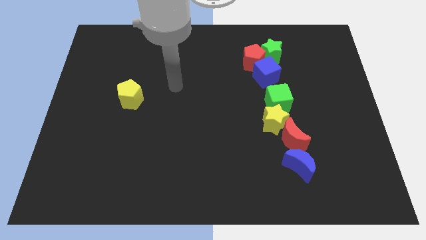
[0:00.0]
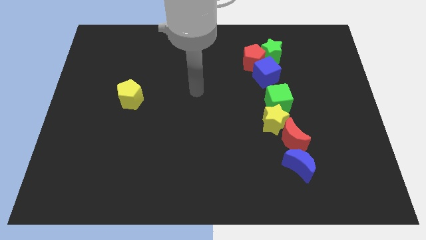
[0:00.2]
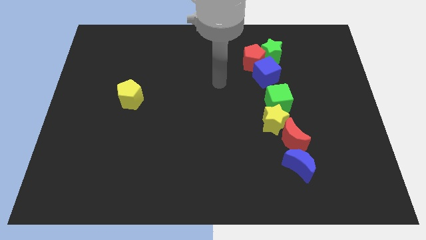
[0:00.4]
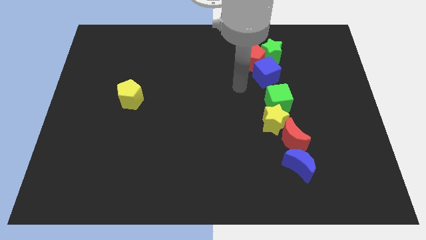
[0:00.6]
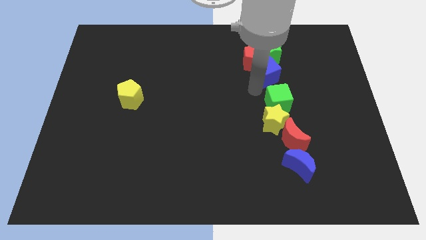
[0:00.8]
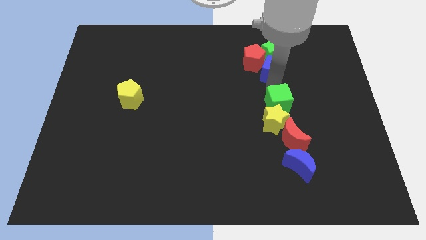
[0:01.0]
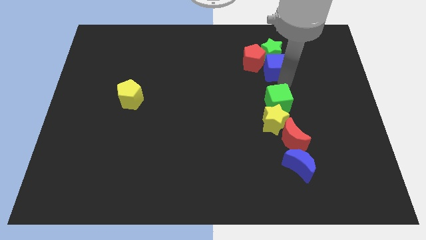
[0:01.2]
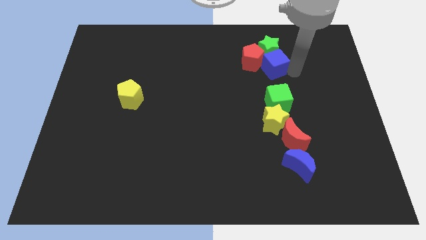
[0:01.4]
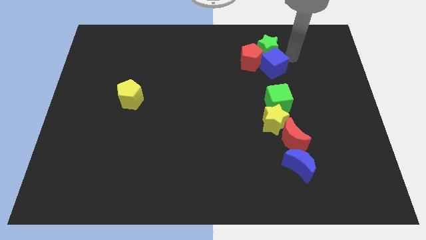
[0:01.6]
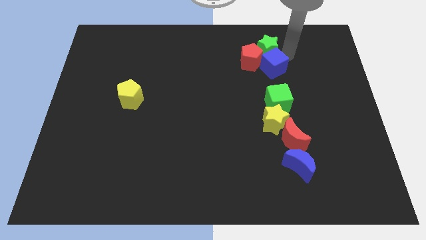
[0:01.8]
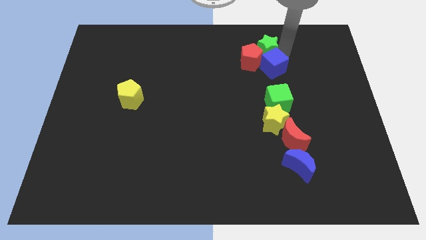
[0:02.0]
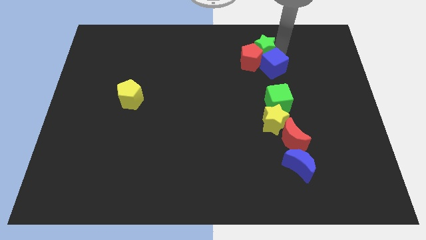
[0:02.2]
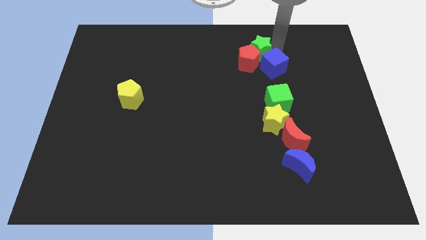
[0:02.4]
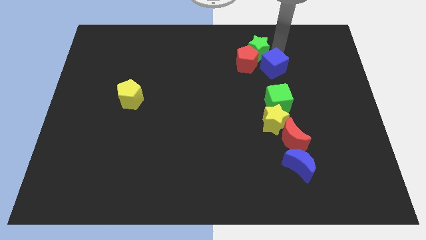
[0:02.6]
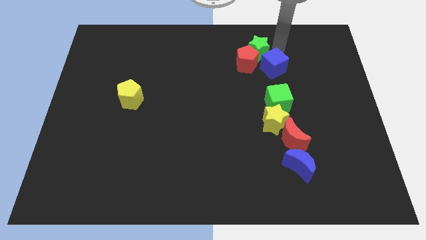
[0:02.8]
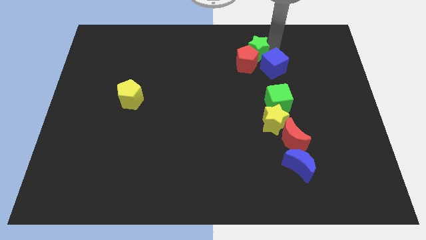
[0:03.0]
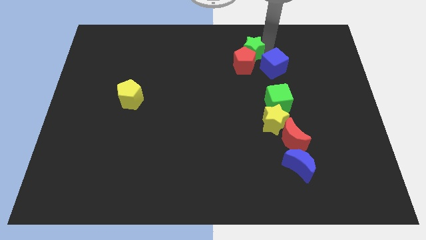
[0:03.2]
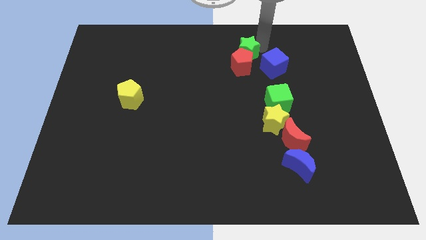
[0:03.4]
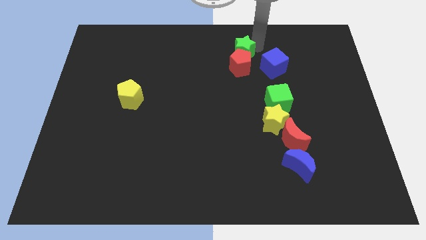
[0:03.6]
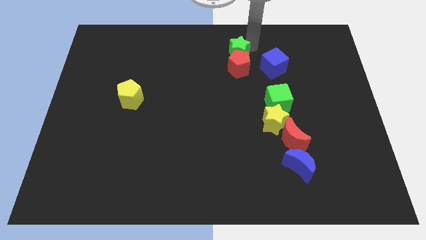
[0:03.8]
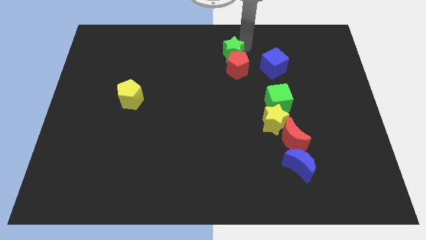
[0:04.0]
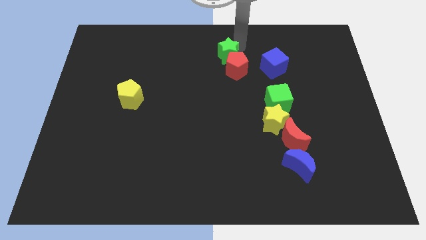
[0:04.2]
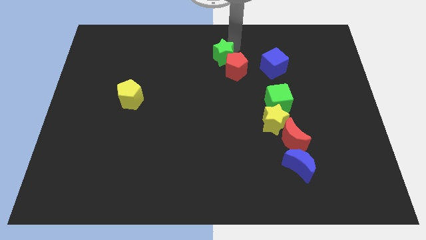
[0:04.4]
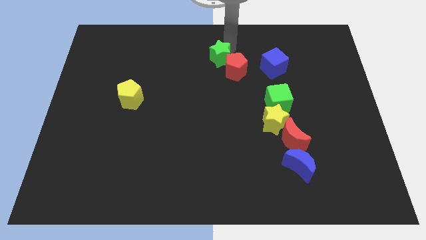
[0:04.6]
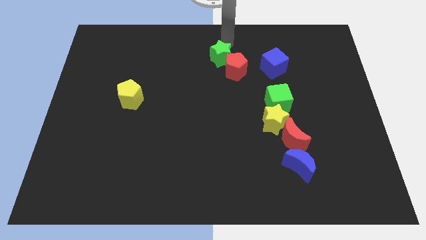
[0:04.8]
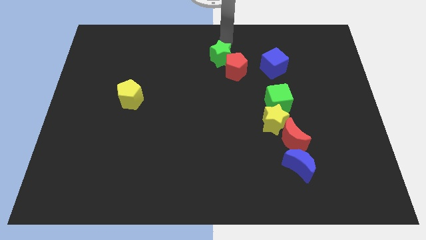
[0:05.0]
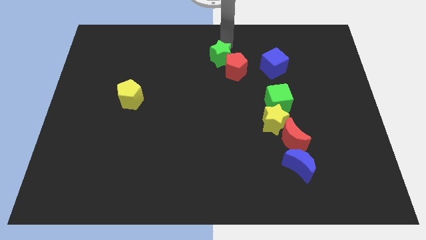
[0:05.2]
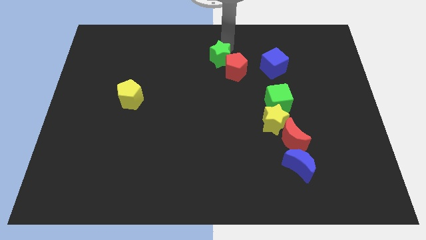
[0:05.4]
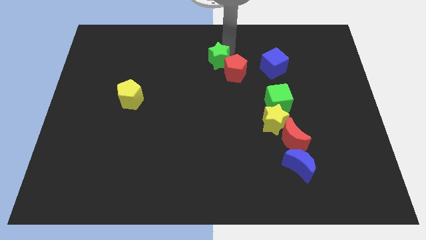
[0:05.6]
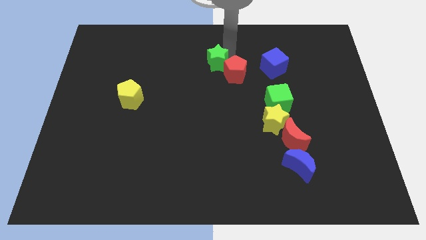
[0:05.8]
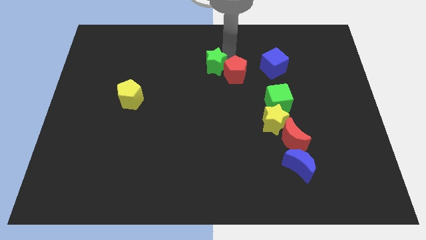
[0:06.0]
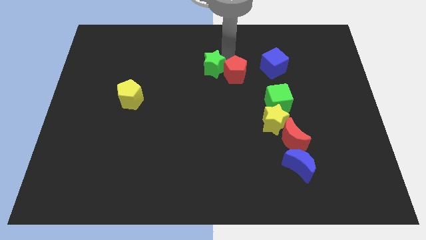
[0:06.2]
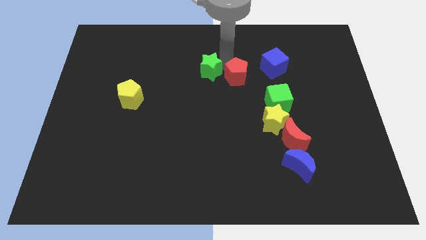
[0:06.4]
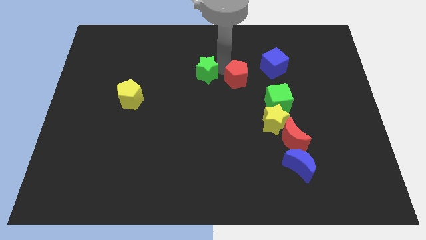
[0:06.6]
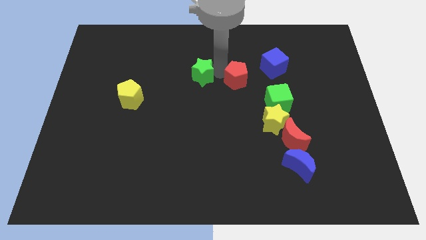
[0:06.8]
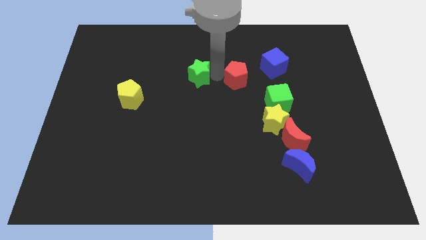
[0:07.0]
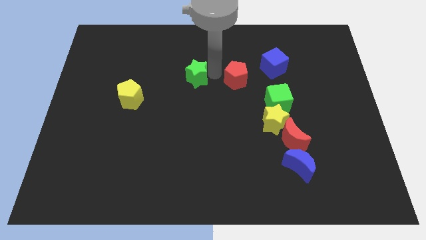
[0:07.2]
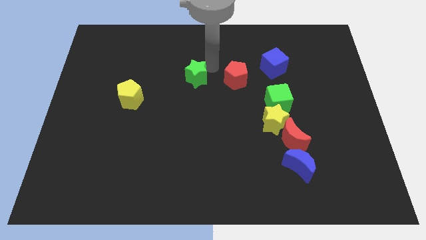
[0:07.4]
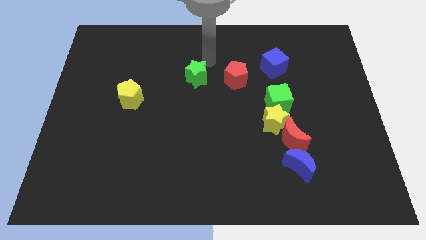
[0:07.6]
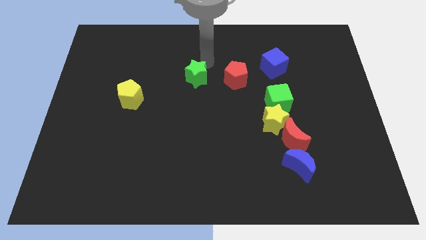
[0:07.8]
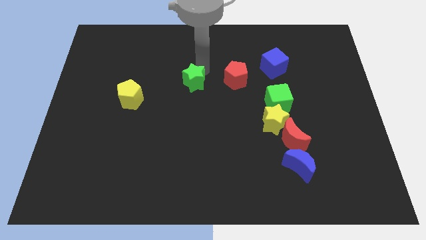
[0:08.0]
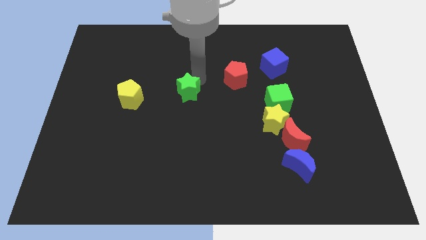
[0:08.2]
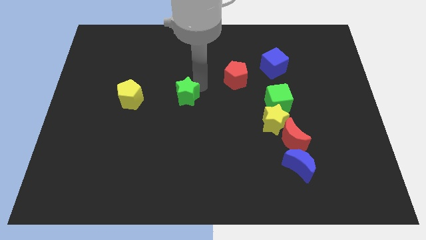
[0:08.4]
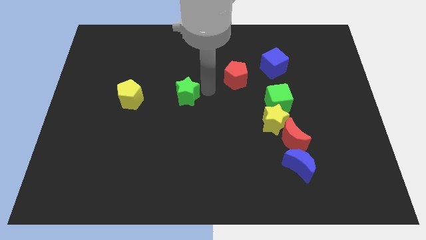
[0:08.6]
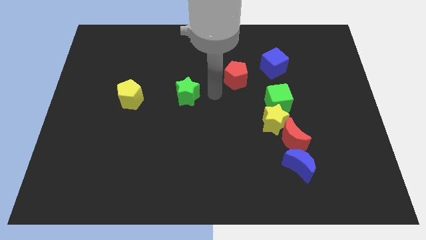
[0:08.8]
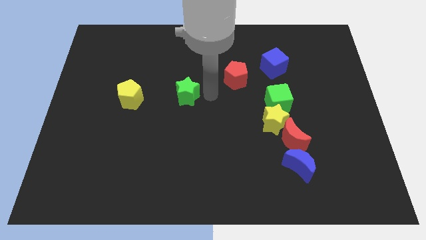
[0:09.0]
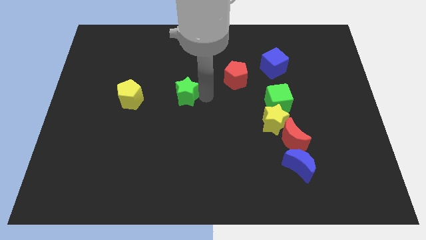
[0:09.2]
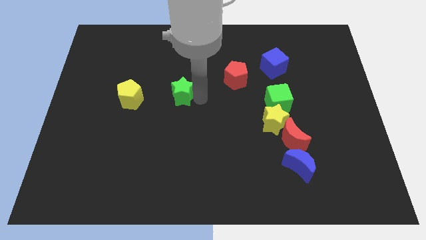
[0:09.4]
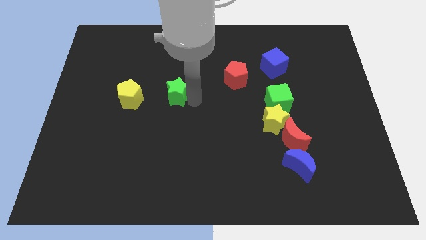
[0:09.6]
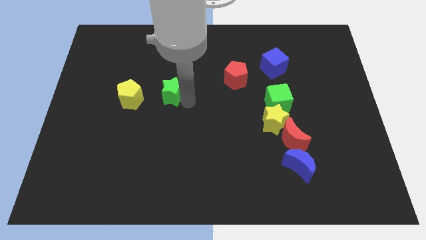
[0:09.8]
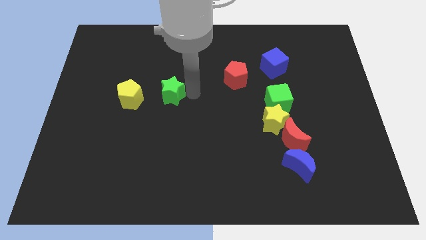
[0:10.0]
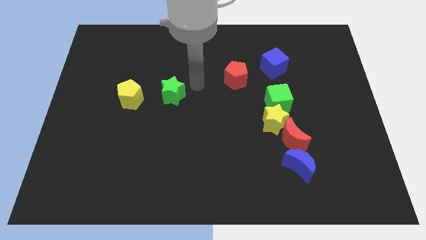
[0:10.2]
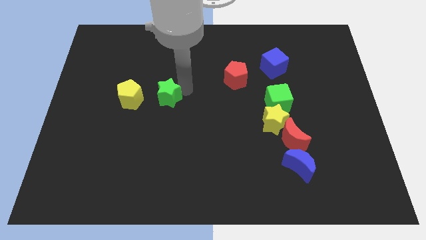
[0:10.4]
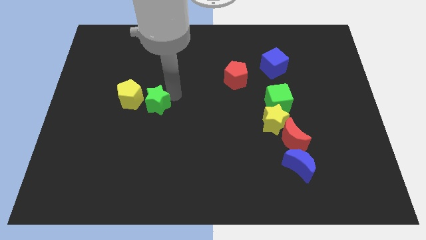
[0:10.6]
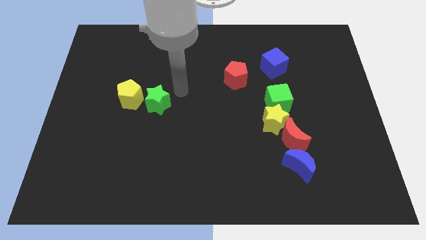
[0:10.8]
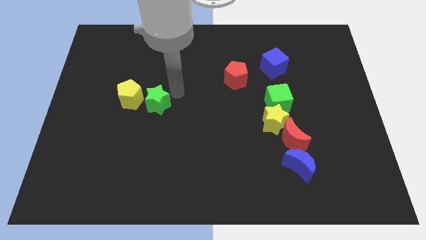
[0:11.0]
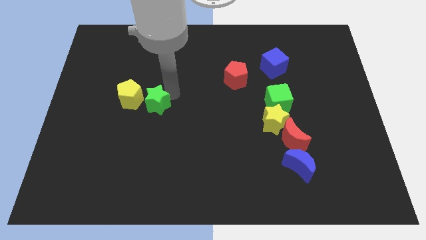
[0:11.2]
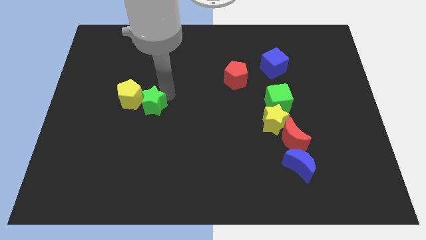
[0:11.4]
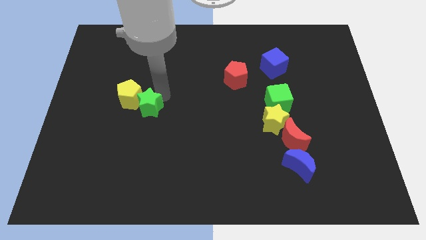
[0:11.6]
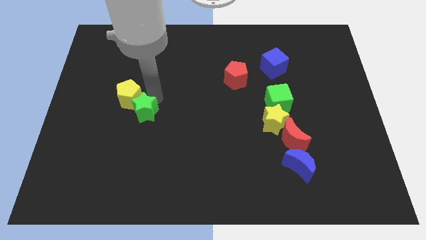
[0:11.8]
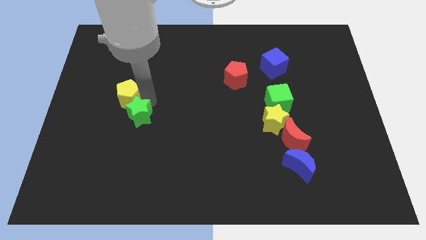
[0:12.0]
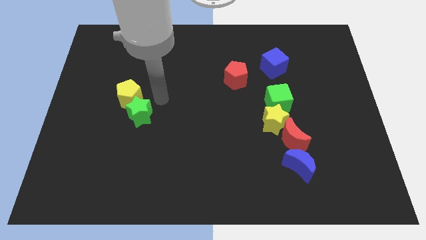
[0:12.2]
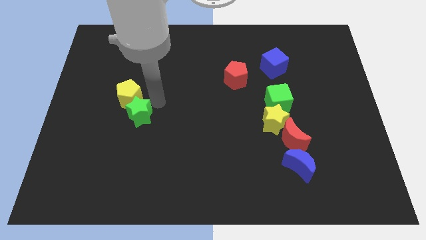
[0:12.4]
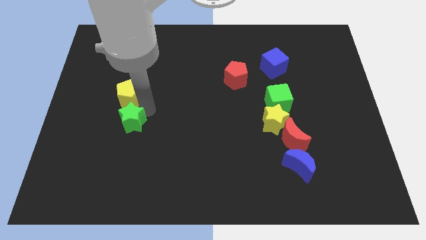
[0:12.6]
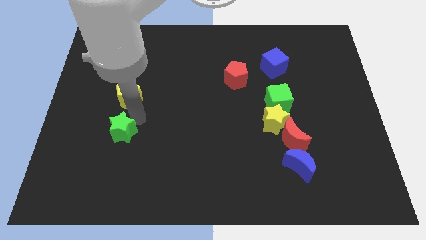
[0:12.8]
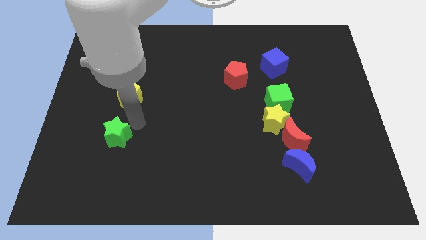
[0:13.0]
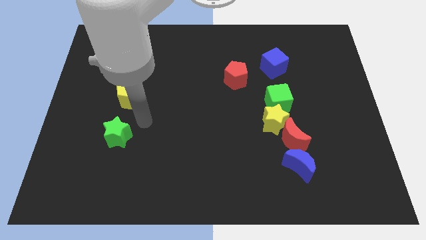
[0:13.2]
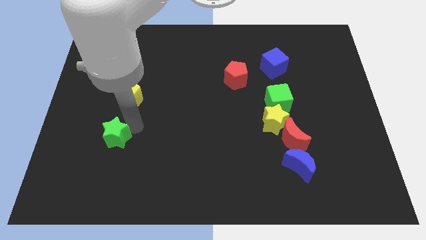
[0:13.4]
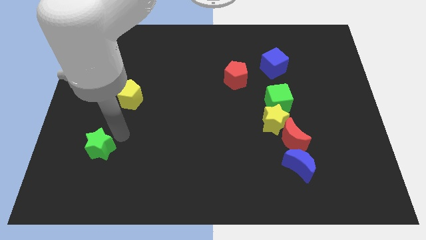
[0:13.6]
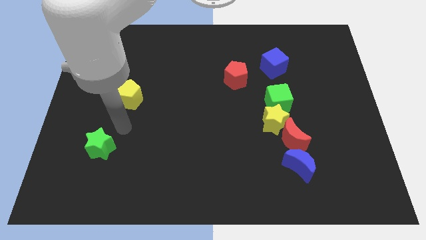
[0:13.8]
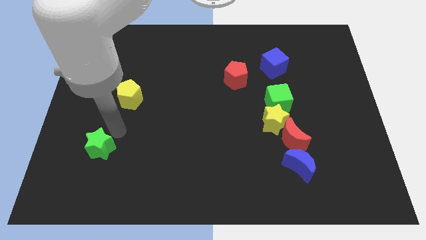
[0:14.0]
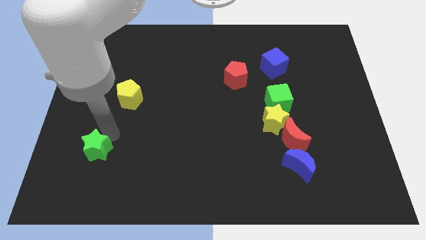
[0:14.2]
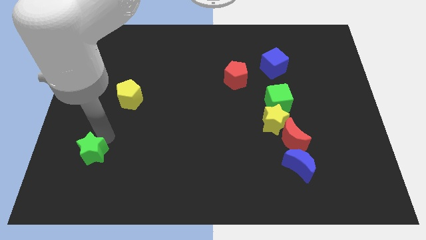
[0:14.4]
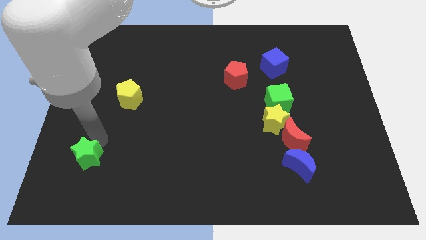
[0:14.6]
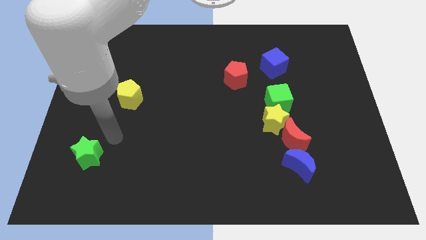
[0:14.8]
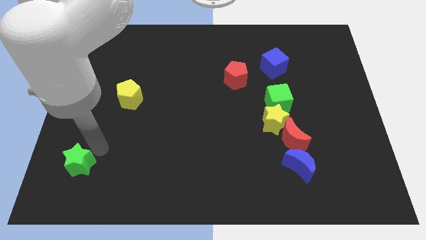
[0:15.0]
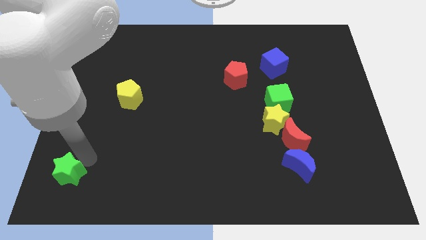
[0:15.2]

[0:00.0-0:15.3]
push the green star to the bottom left
